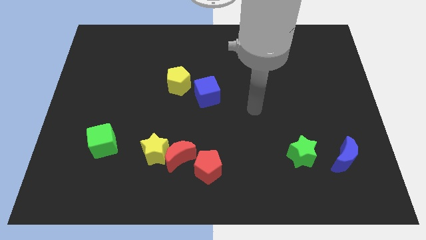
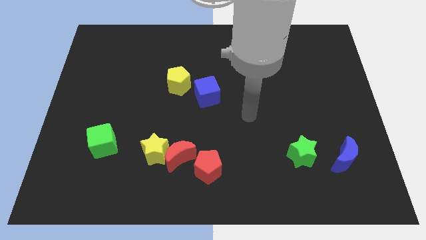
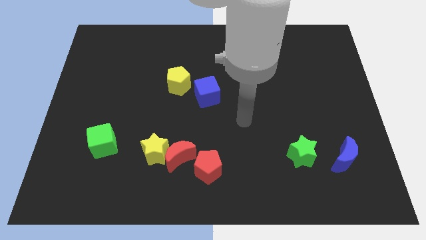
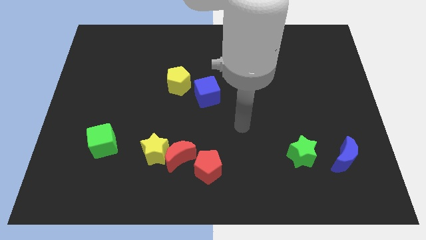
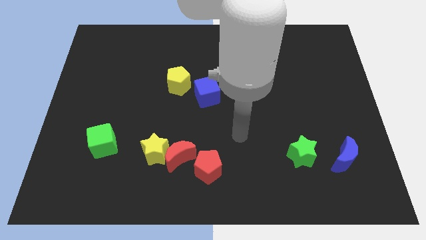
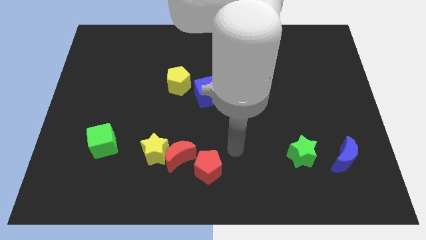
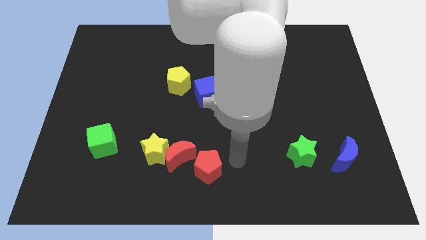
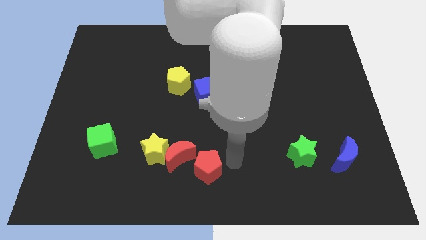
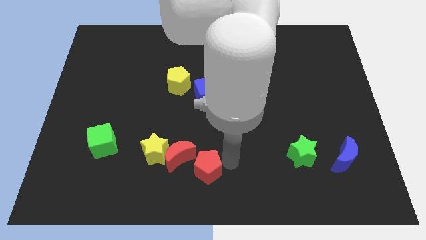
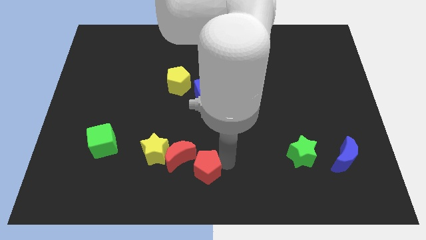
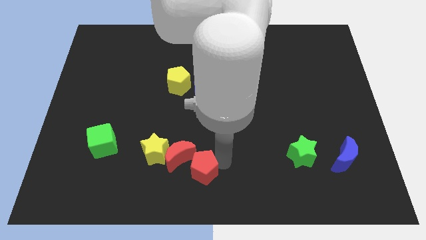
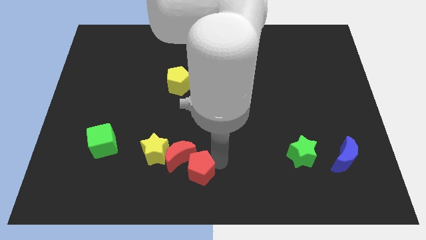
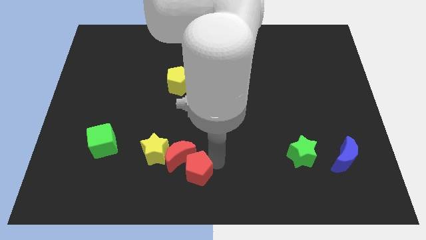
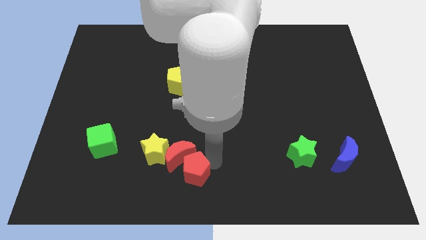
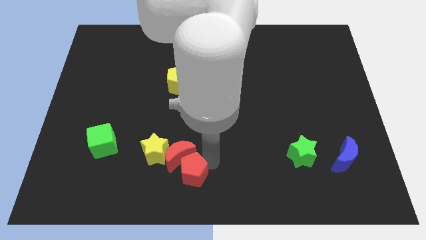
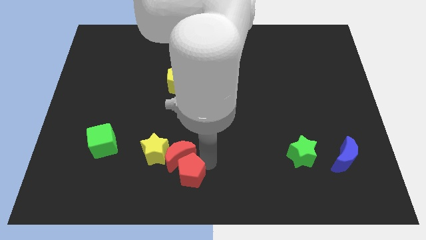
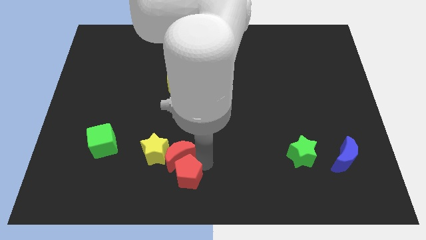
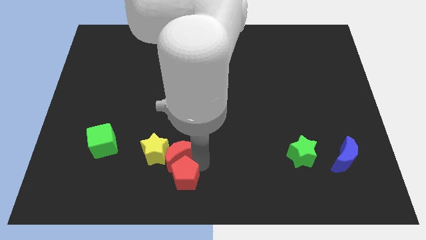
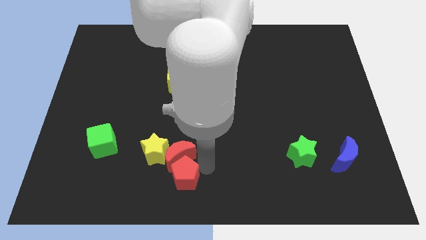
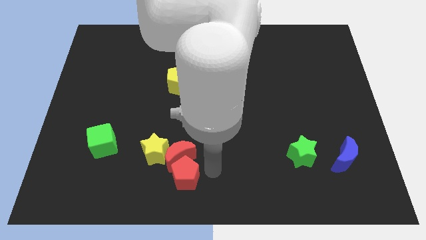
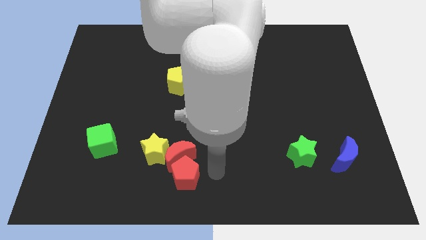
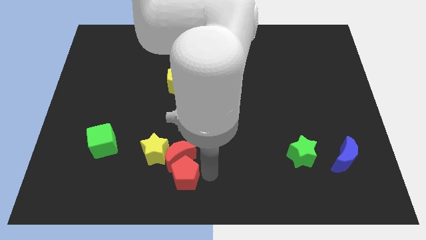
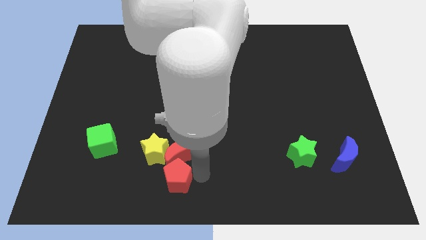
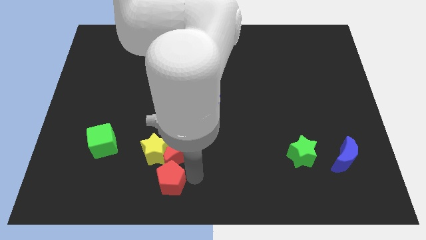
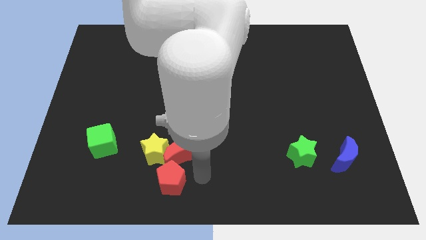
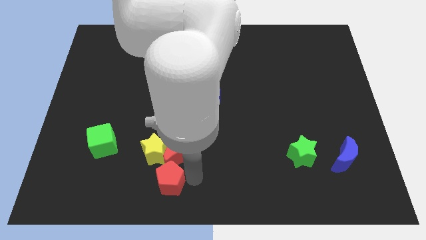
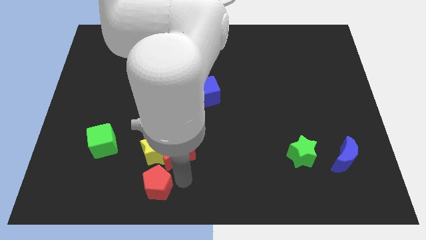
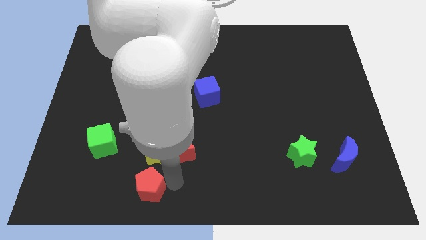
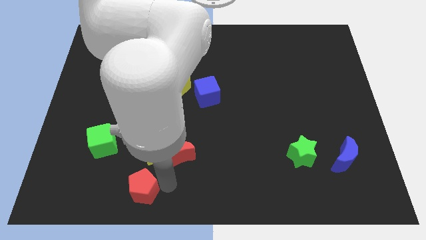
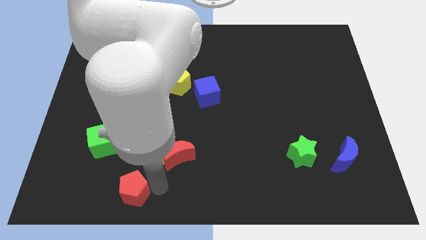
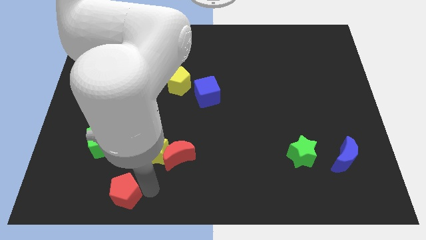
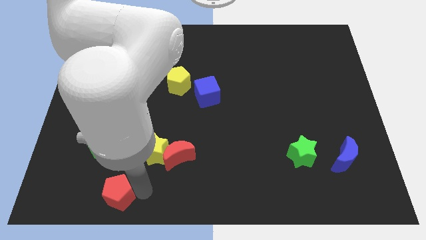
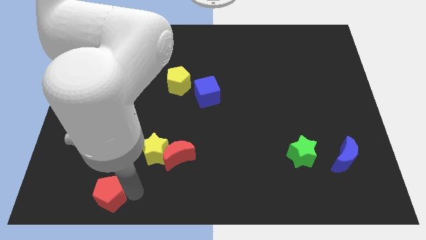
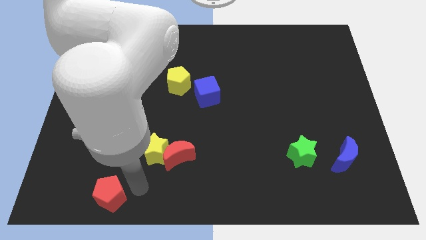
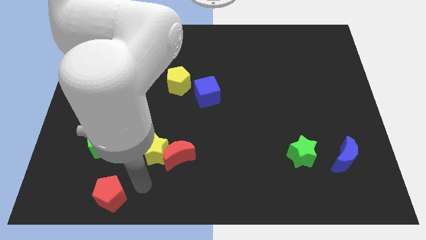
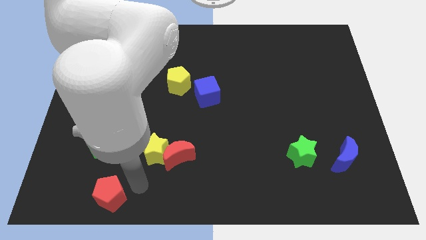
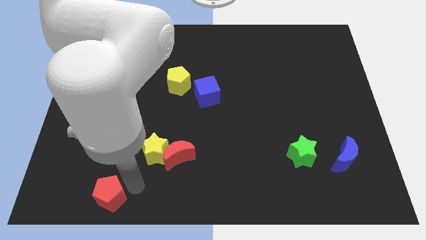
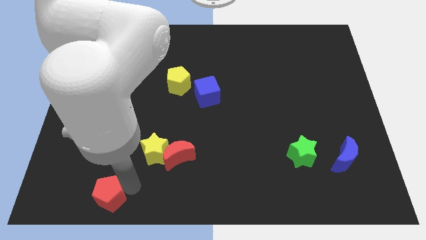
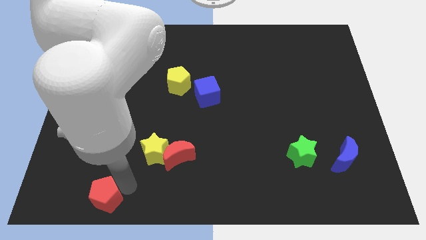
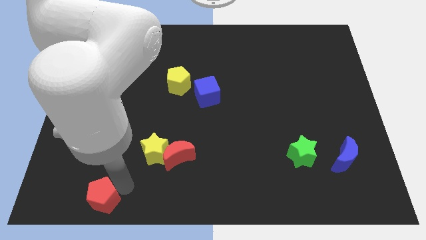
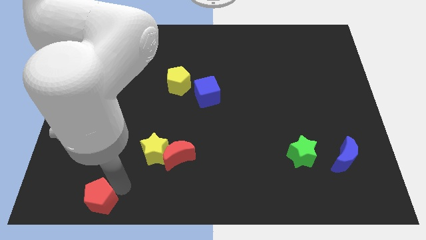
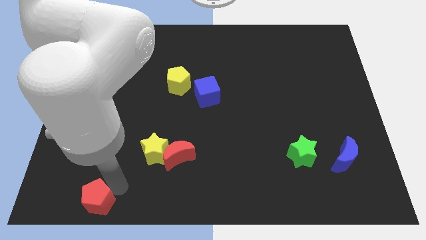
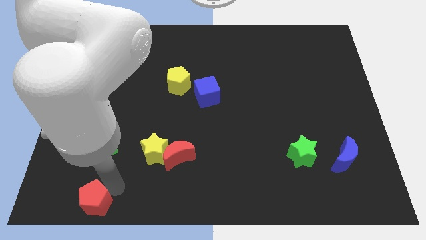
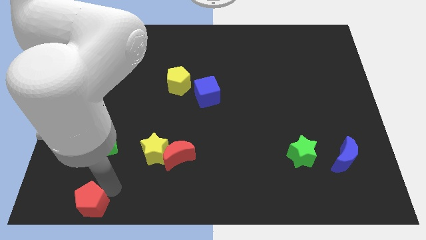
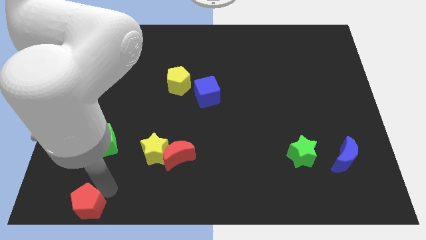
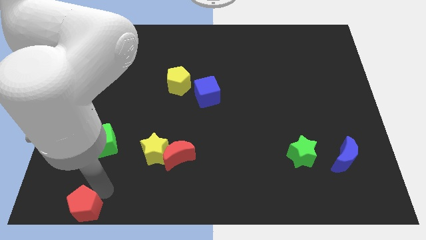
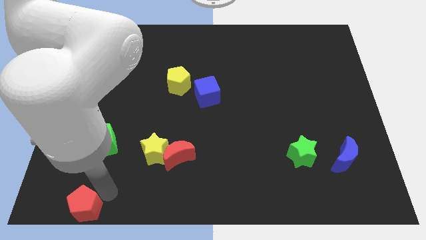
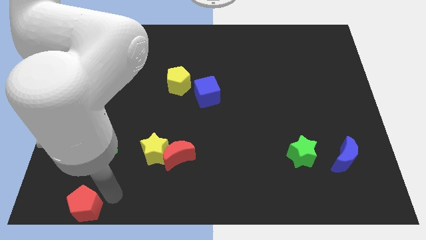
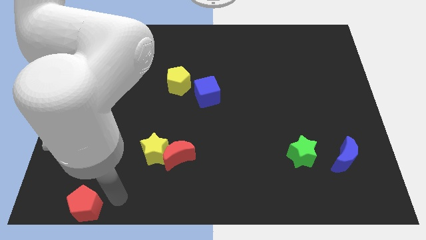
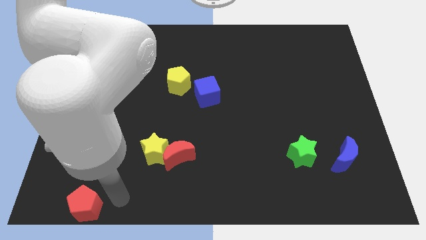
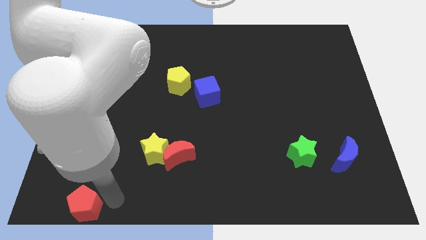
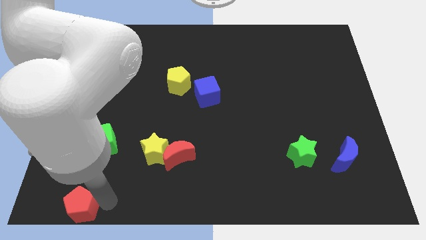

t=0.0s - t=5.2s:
slide the red pentagon to the bottom left of the board

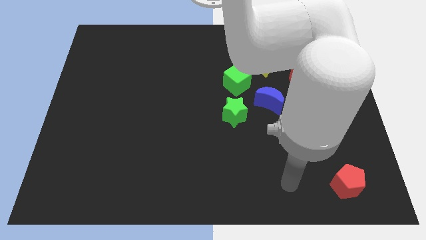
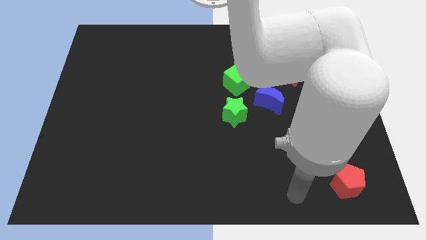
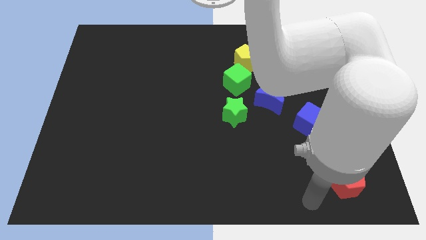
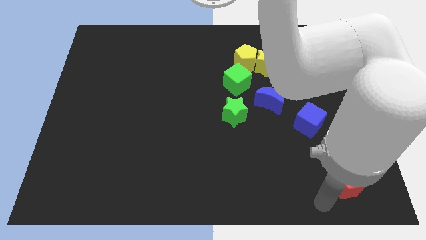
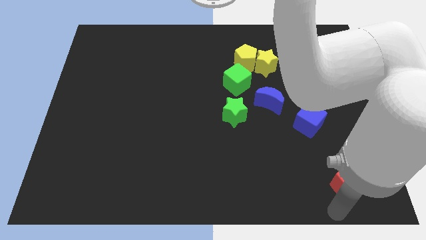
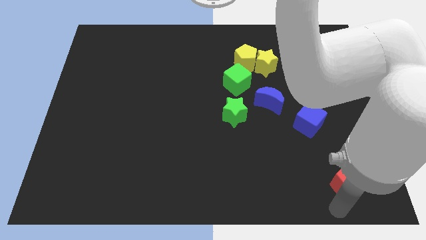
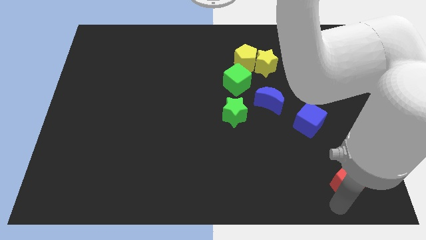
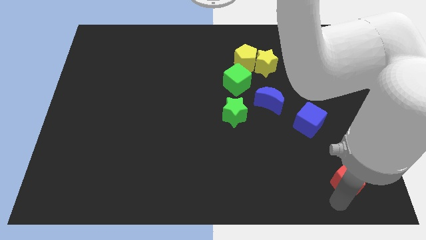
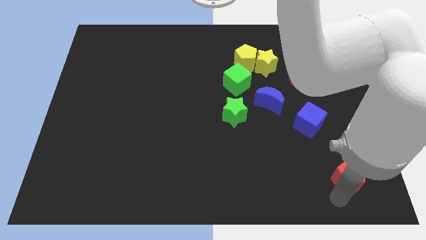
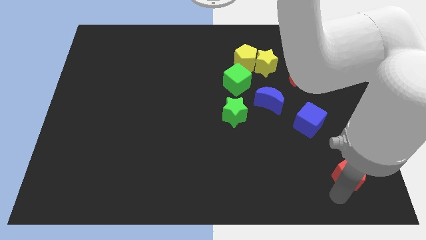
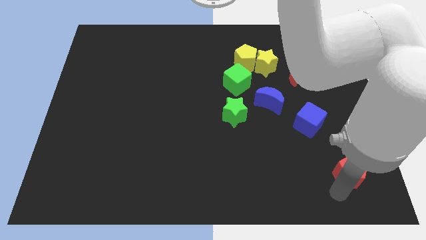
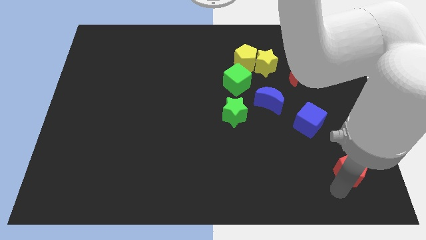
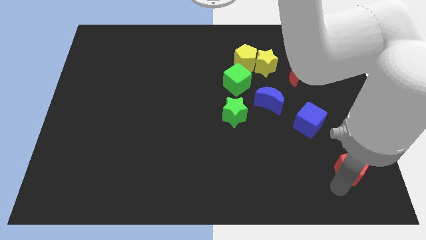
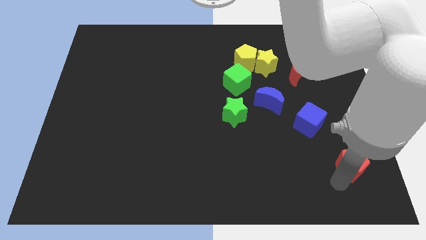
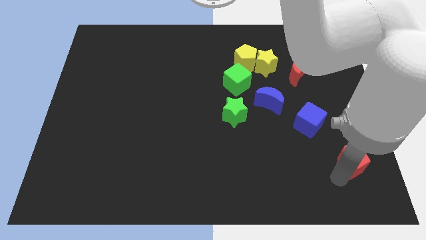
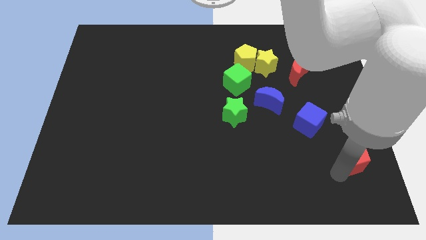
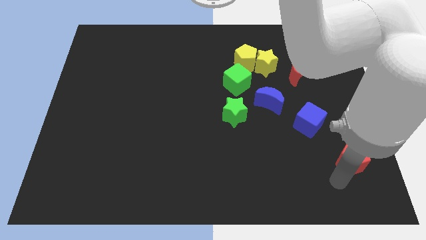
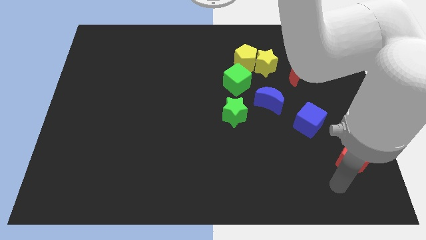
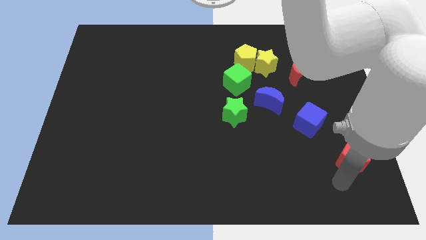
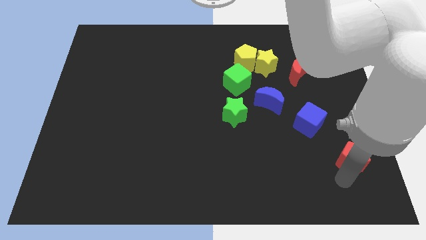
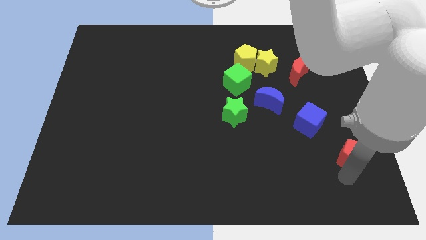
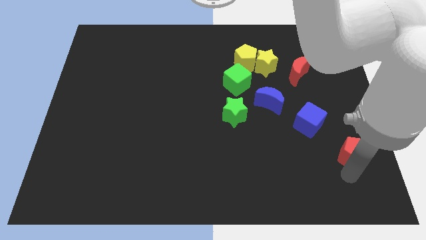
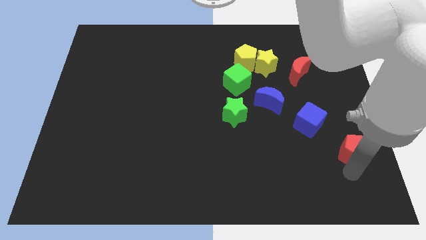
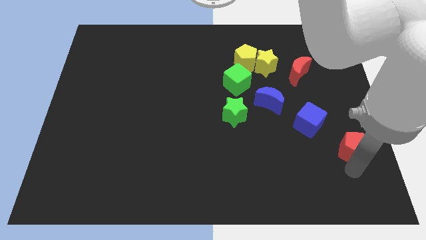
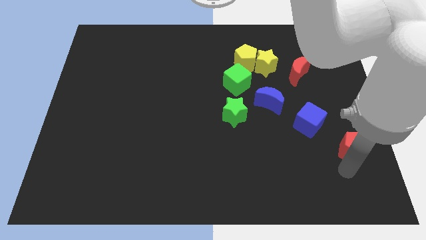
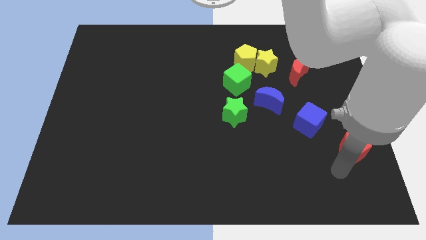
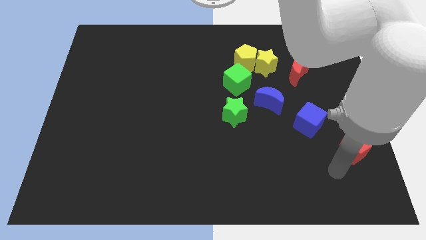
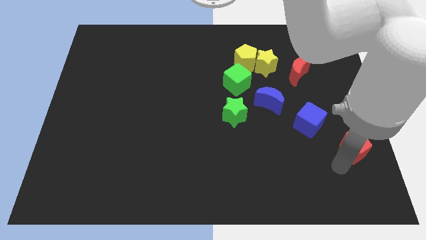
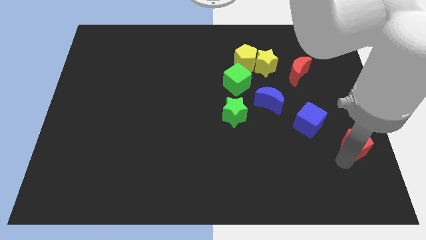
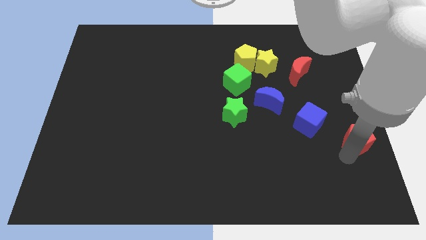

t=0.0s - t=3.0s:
slide the red pentagon to the right side
